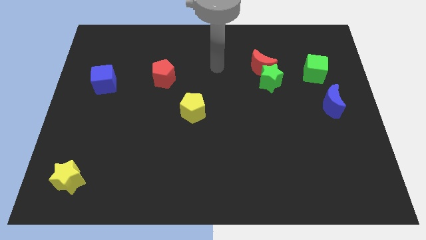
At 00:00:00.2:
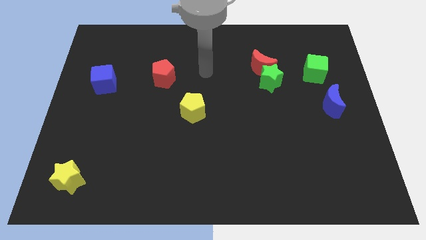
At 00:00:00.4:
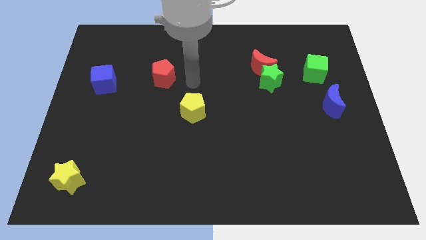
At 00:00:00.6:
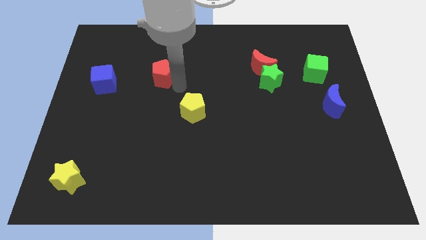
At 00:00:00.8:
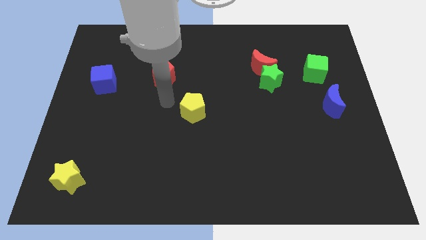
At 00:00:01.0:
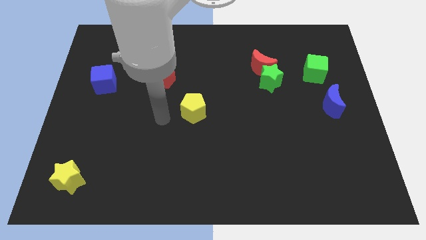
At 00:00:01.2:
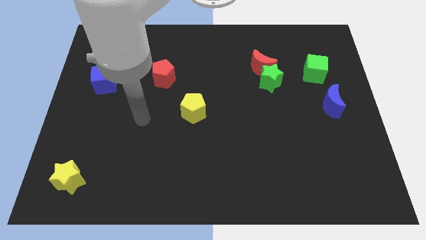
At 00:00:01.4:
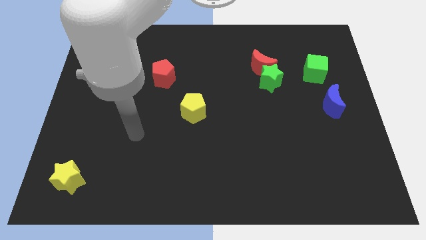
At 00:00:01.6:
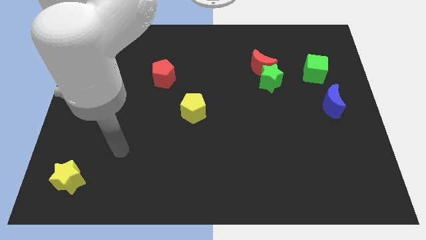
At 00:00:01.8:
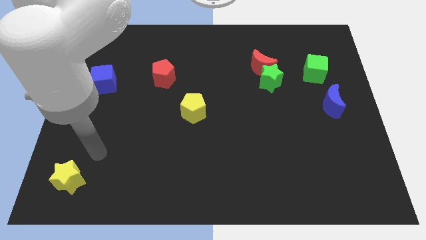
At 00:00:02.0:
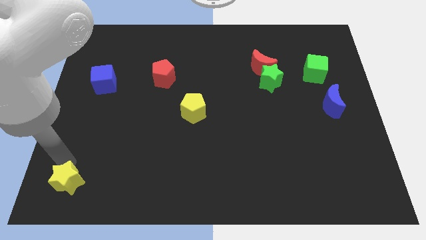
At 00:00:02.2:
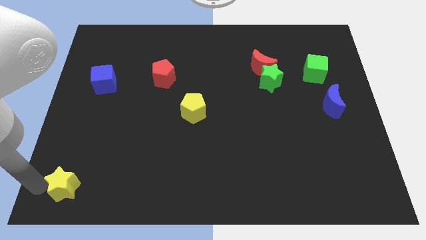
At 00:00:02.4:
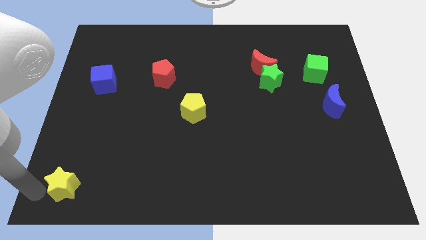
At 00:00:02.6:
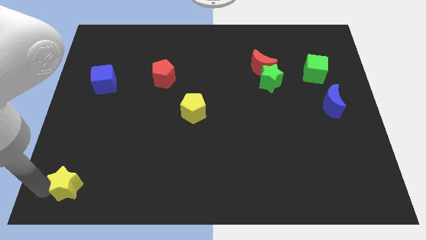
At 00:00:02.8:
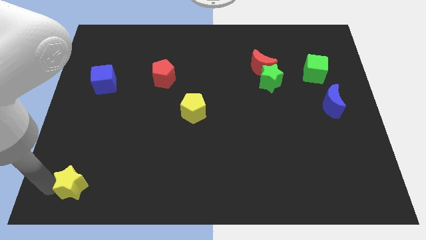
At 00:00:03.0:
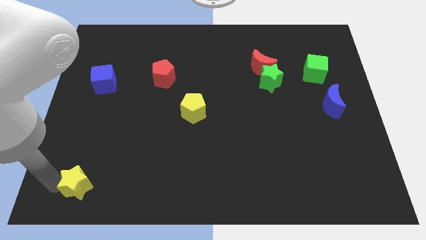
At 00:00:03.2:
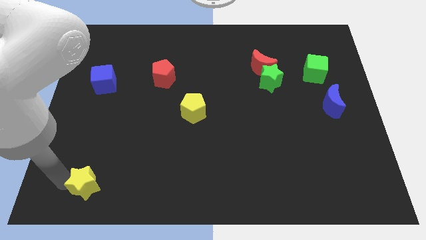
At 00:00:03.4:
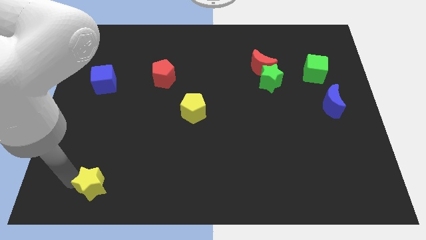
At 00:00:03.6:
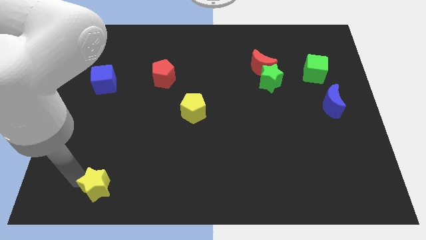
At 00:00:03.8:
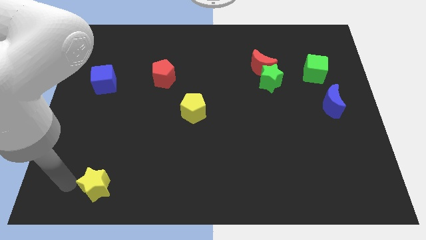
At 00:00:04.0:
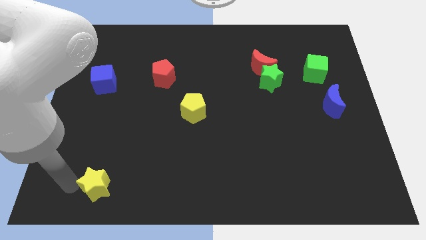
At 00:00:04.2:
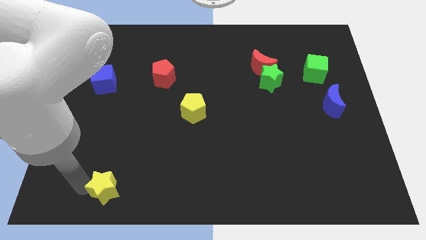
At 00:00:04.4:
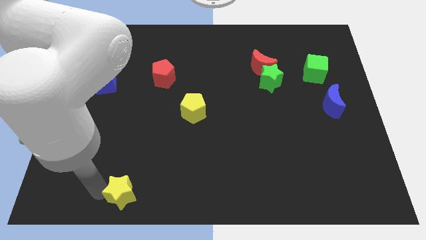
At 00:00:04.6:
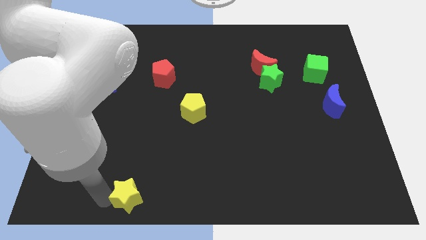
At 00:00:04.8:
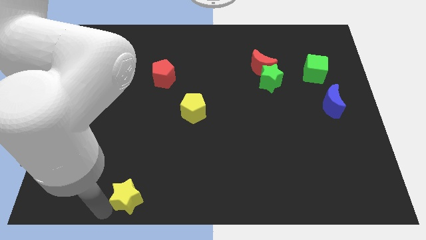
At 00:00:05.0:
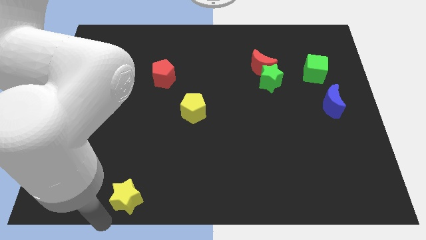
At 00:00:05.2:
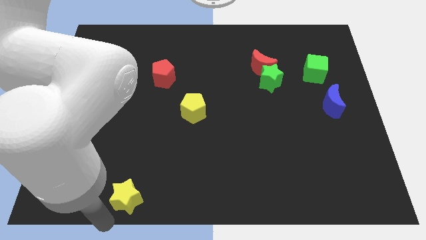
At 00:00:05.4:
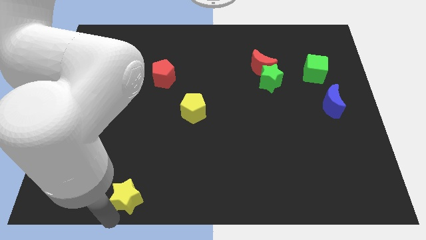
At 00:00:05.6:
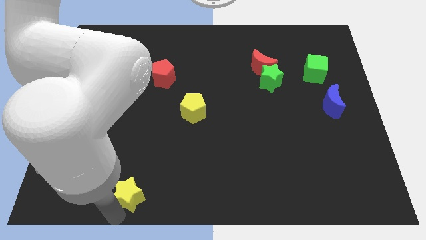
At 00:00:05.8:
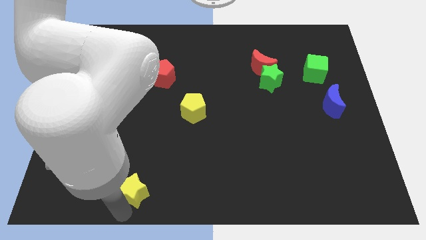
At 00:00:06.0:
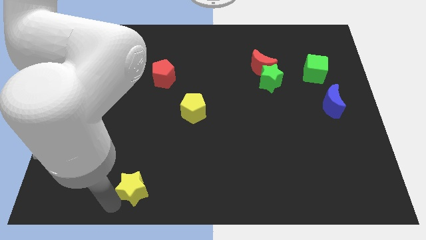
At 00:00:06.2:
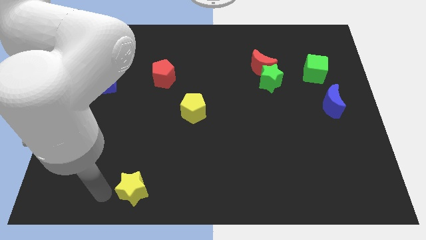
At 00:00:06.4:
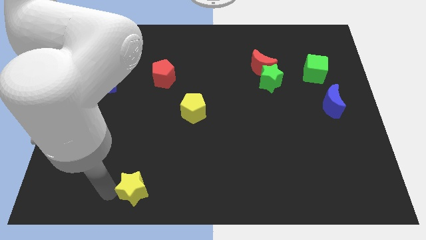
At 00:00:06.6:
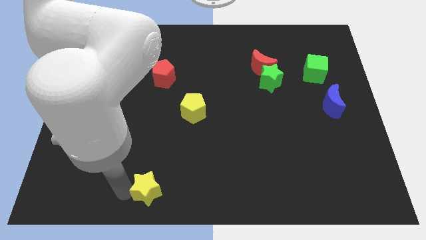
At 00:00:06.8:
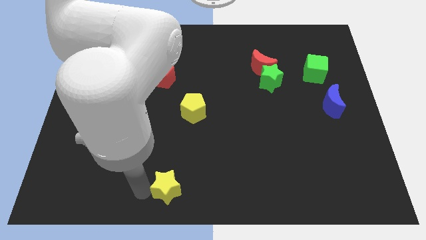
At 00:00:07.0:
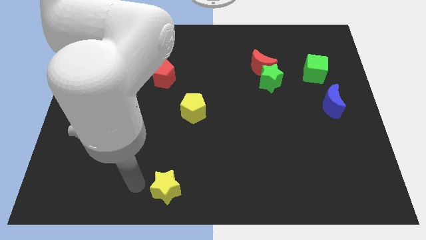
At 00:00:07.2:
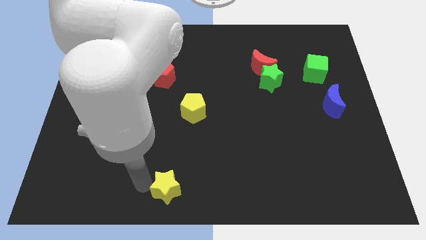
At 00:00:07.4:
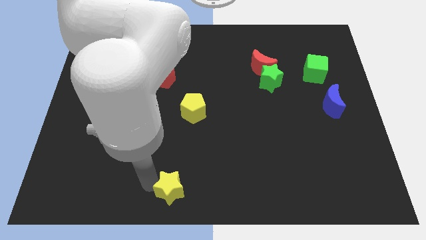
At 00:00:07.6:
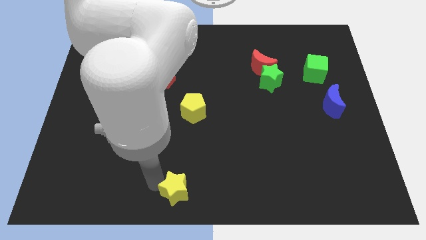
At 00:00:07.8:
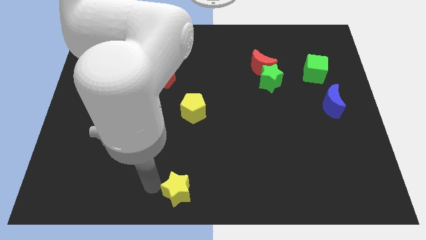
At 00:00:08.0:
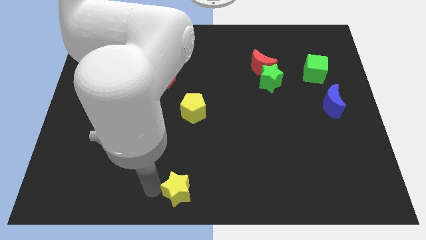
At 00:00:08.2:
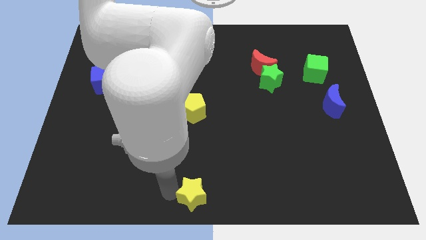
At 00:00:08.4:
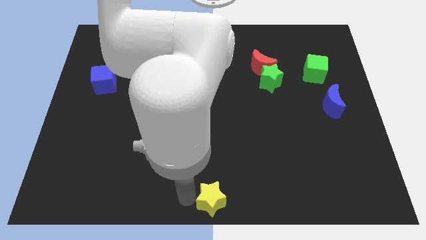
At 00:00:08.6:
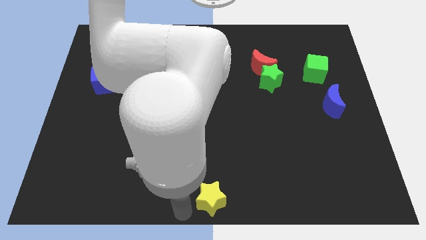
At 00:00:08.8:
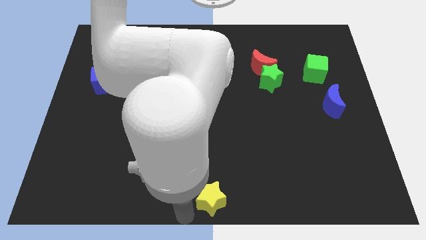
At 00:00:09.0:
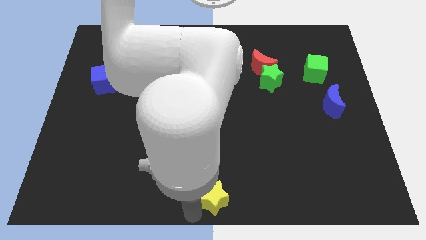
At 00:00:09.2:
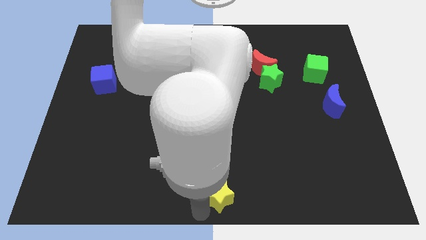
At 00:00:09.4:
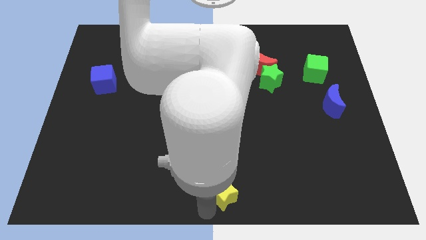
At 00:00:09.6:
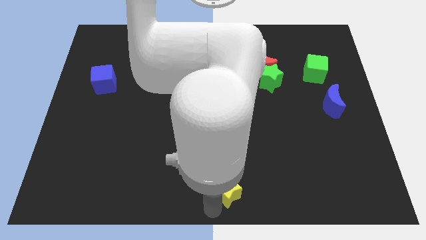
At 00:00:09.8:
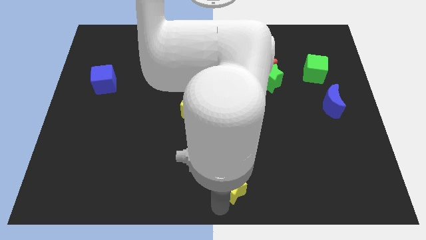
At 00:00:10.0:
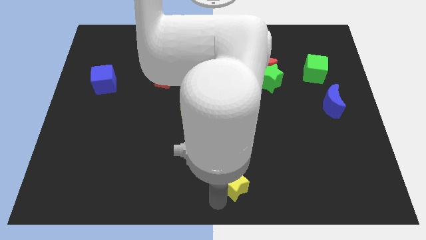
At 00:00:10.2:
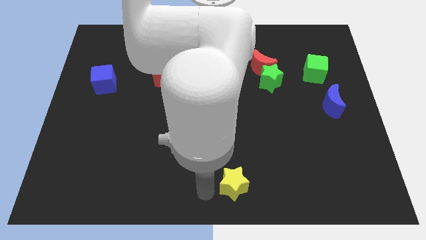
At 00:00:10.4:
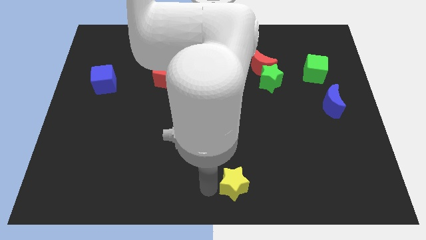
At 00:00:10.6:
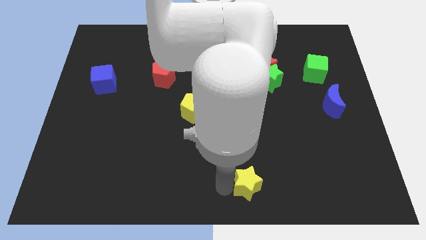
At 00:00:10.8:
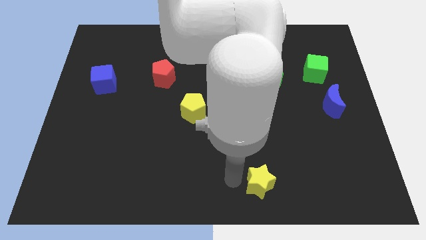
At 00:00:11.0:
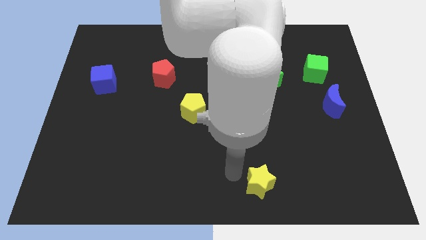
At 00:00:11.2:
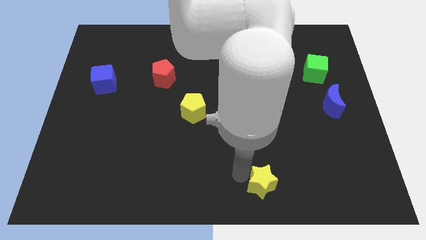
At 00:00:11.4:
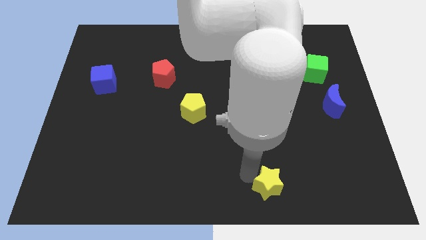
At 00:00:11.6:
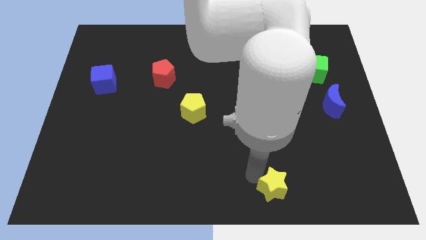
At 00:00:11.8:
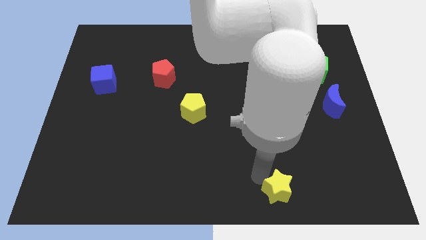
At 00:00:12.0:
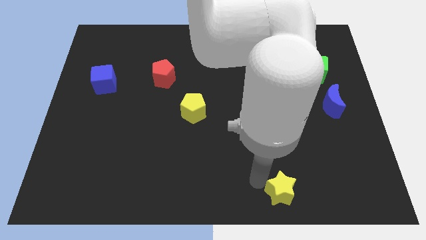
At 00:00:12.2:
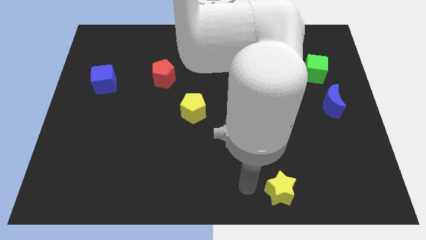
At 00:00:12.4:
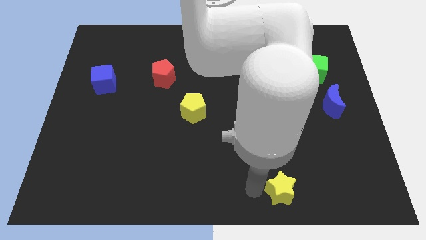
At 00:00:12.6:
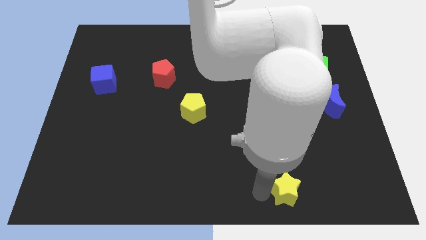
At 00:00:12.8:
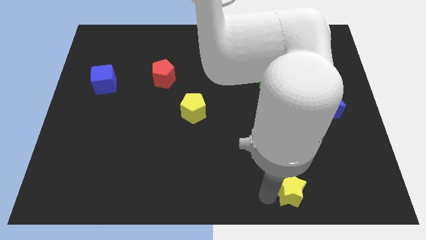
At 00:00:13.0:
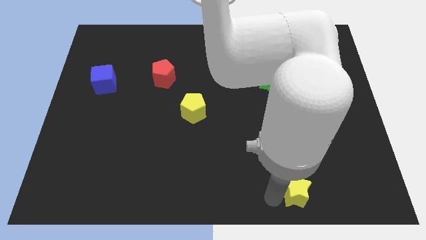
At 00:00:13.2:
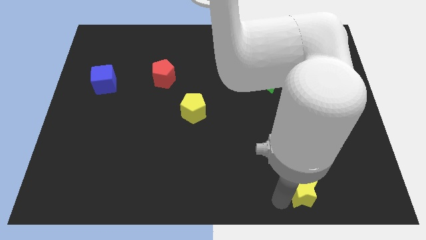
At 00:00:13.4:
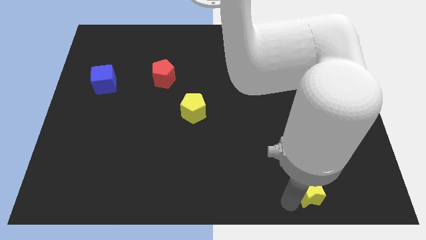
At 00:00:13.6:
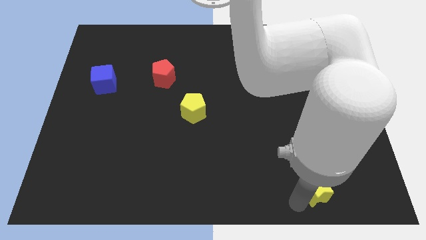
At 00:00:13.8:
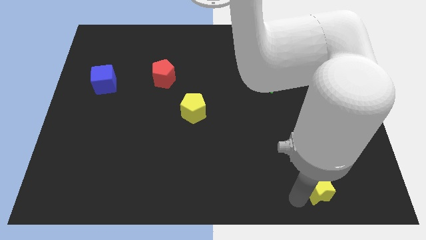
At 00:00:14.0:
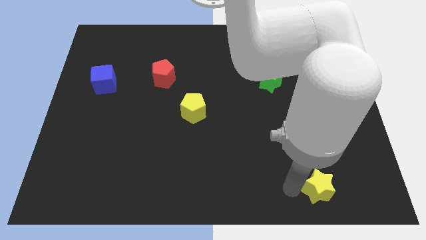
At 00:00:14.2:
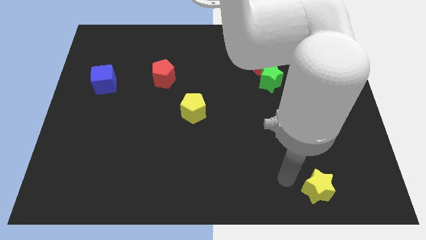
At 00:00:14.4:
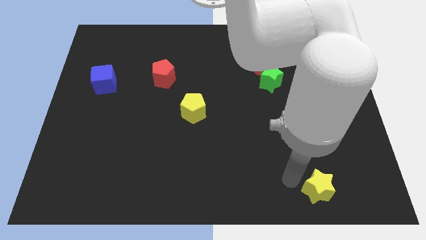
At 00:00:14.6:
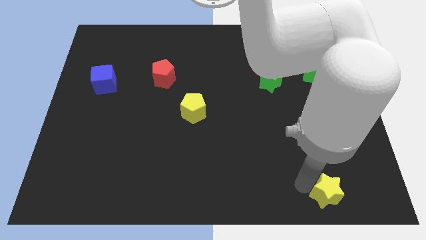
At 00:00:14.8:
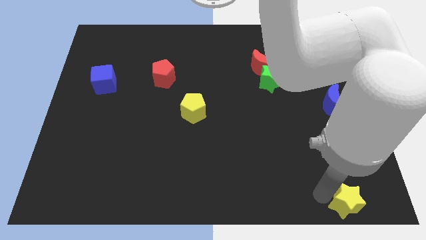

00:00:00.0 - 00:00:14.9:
slide the yellow star to the bottom right
